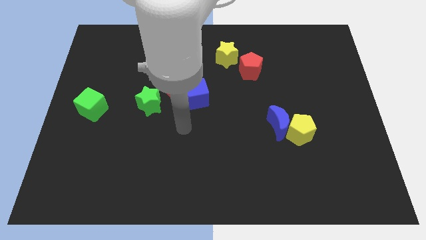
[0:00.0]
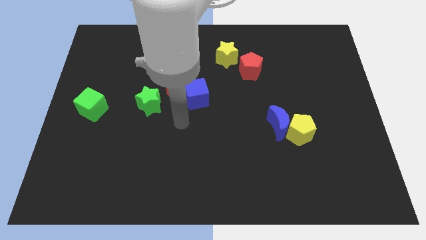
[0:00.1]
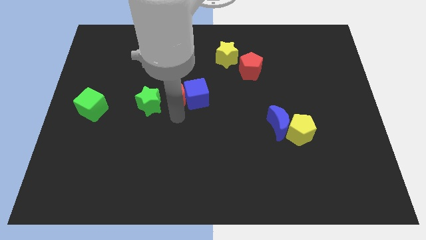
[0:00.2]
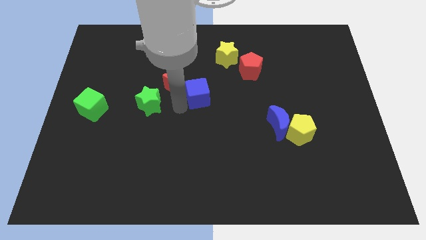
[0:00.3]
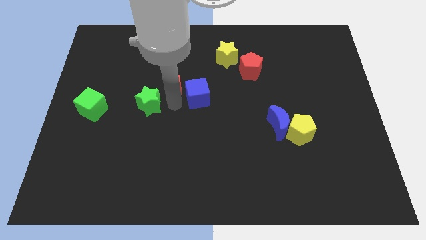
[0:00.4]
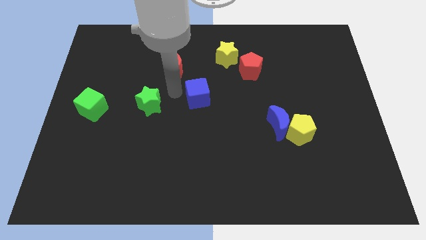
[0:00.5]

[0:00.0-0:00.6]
separate the blue cube from the red moon

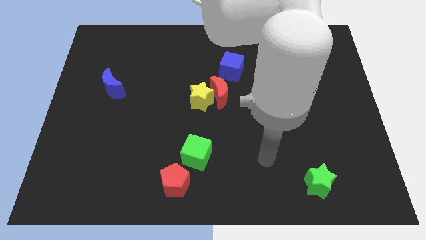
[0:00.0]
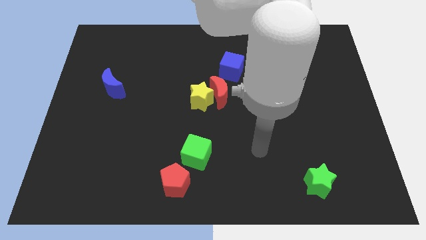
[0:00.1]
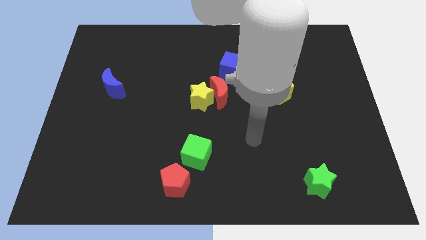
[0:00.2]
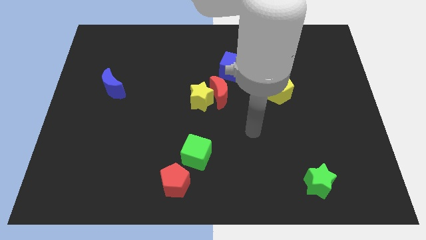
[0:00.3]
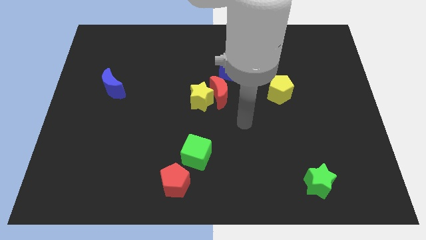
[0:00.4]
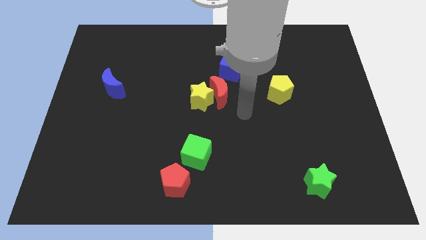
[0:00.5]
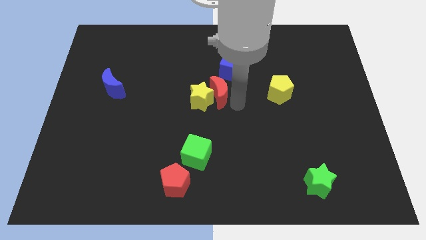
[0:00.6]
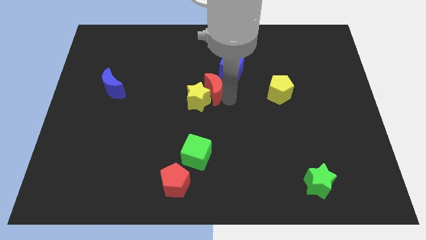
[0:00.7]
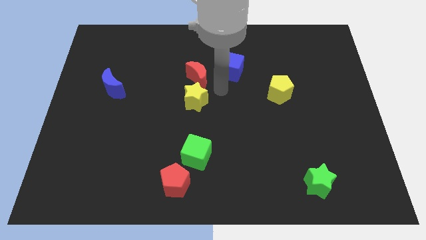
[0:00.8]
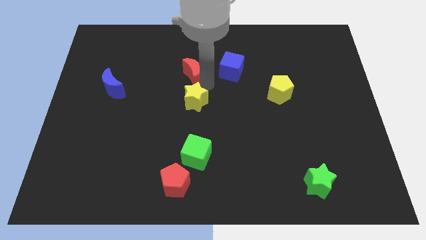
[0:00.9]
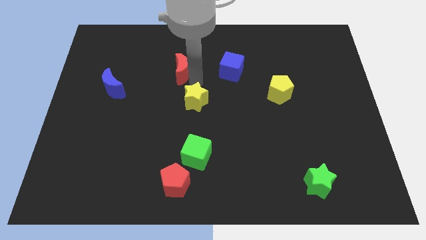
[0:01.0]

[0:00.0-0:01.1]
move the yellow star away from the red moon

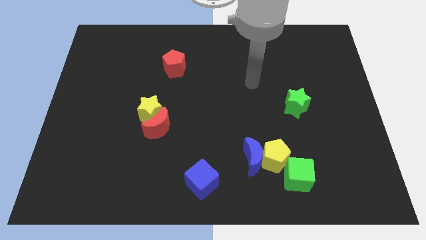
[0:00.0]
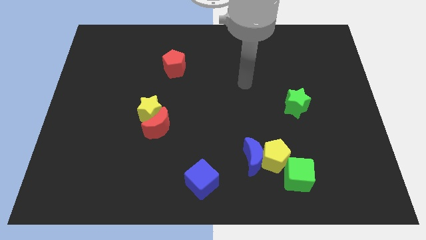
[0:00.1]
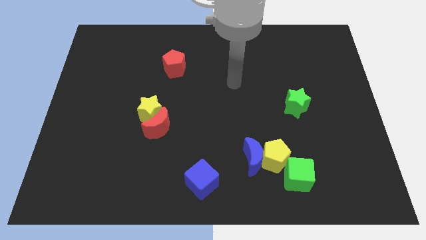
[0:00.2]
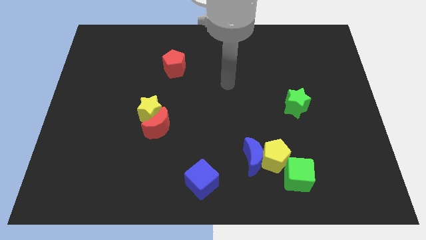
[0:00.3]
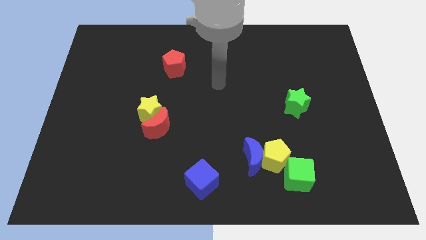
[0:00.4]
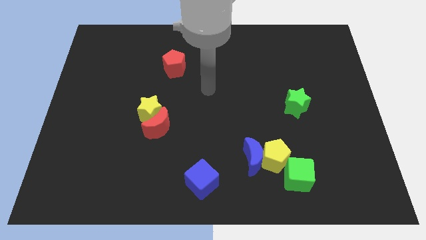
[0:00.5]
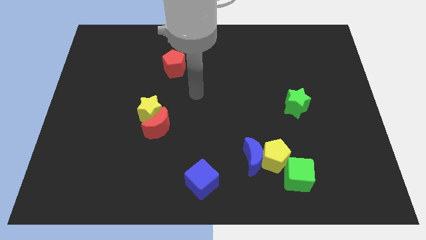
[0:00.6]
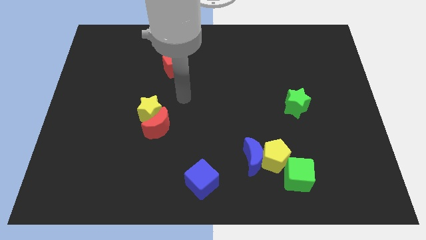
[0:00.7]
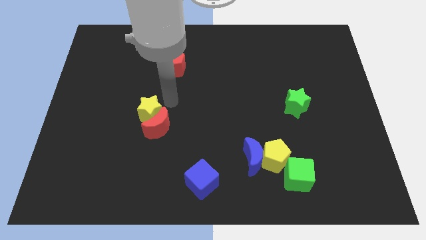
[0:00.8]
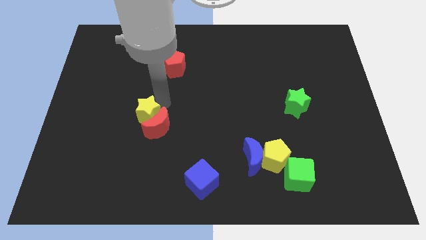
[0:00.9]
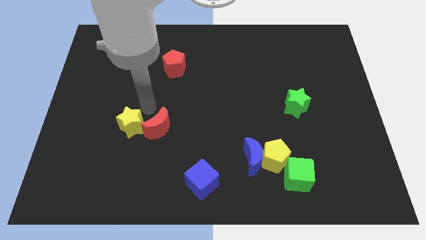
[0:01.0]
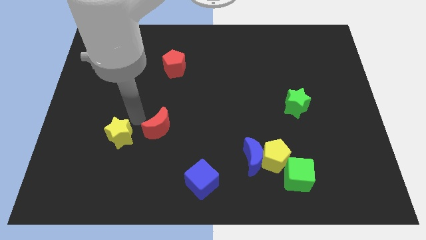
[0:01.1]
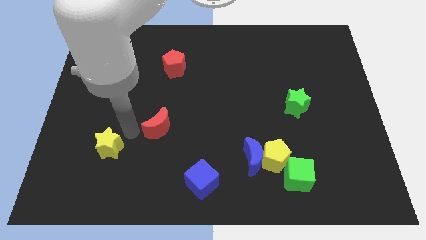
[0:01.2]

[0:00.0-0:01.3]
separate the red moon from the yellow star

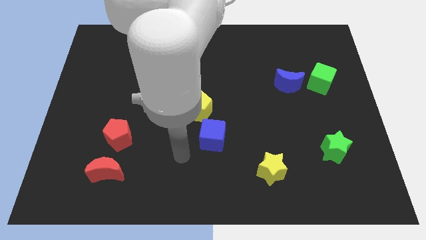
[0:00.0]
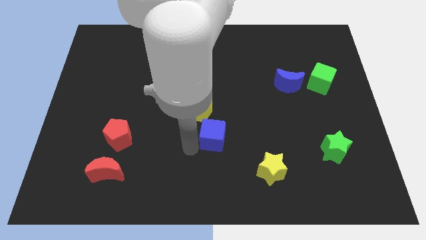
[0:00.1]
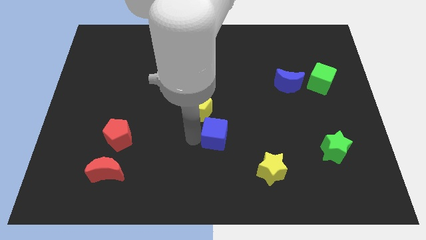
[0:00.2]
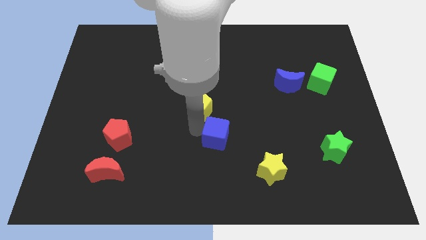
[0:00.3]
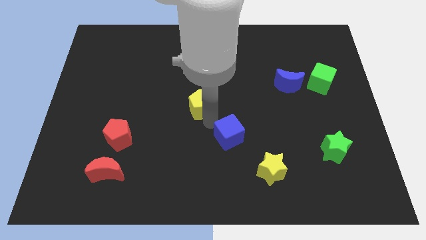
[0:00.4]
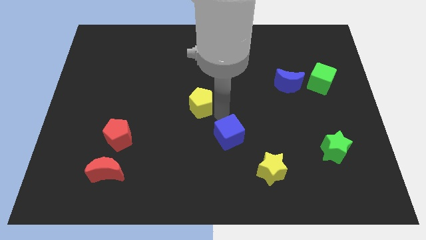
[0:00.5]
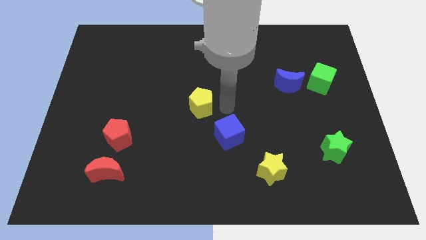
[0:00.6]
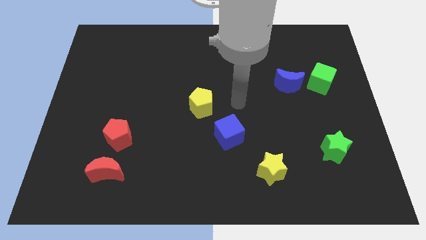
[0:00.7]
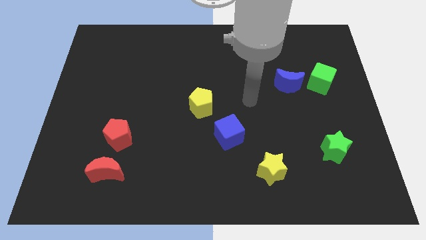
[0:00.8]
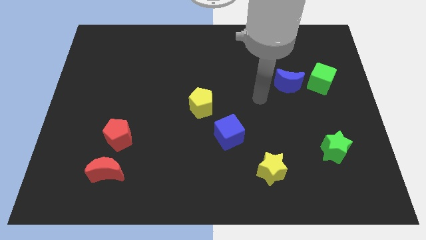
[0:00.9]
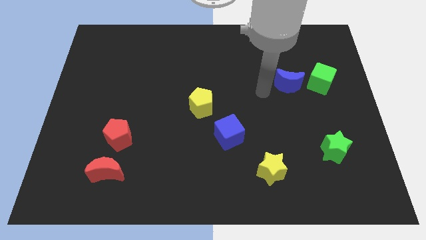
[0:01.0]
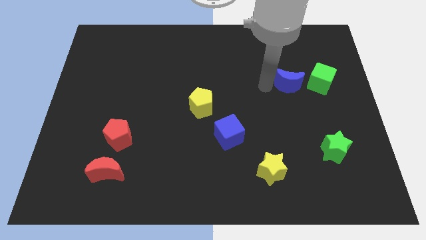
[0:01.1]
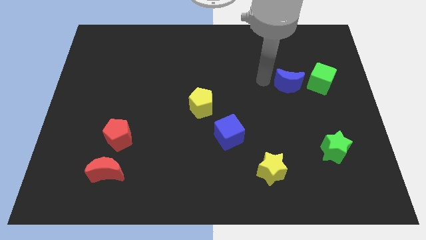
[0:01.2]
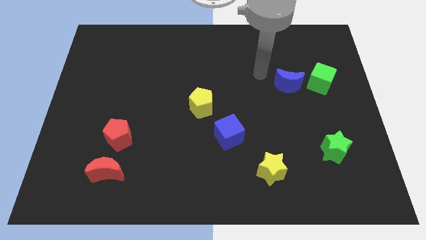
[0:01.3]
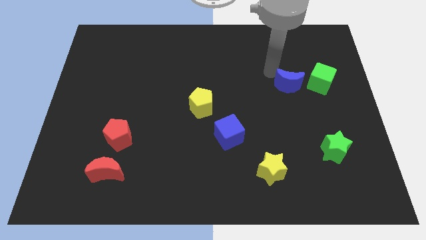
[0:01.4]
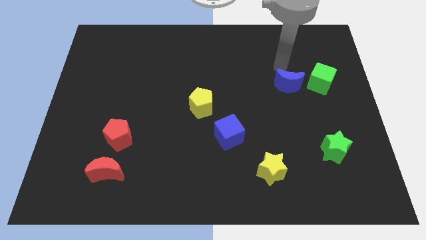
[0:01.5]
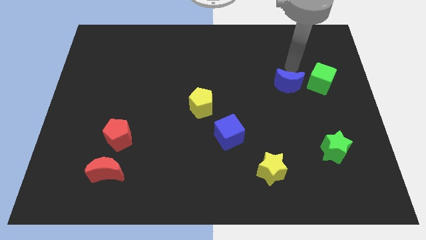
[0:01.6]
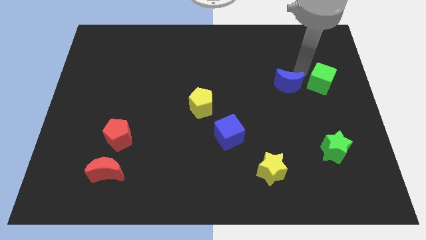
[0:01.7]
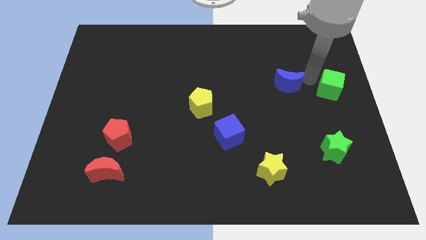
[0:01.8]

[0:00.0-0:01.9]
move the blue moon away from the green cube

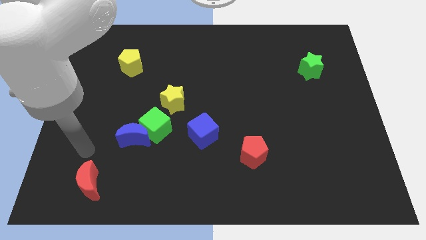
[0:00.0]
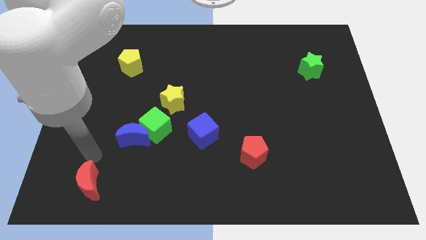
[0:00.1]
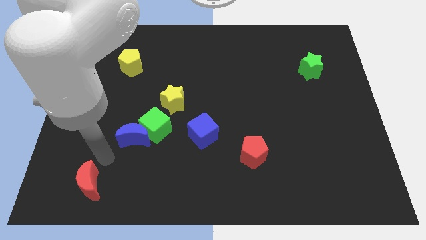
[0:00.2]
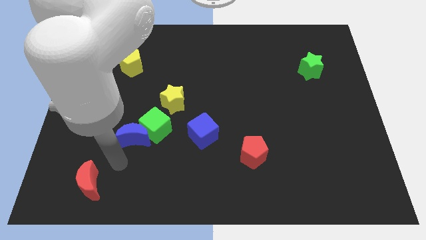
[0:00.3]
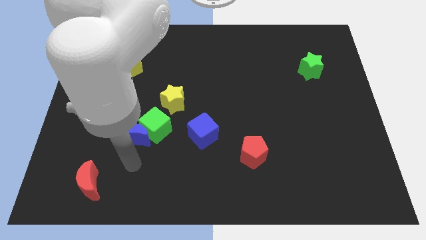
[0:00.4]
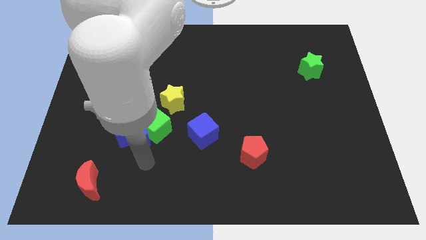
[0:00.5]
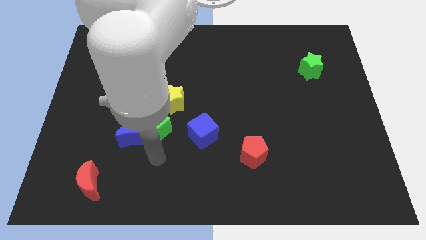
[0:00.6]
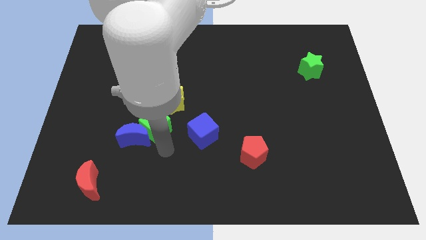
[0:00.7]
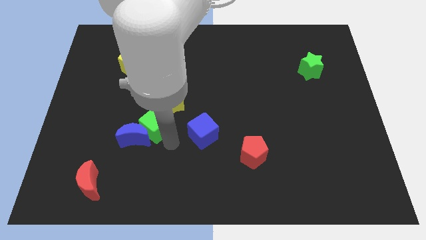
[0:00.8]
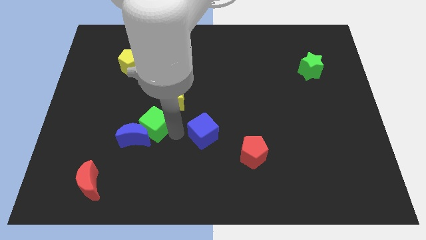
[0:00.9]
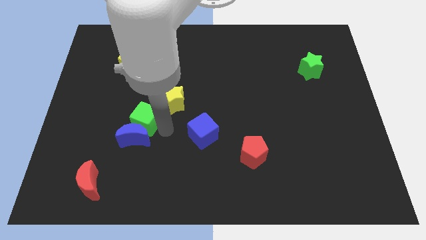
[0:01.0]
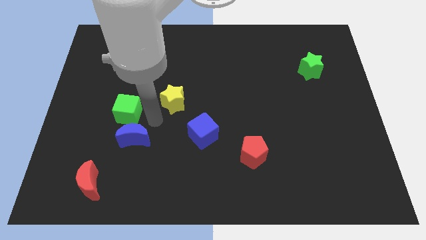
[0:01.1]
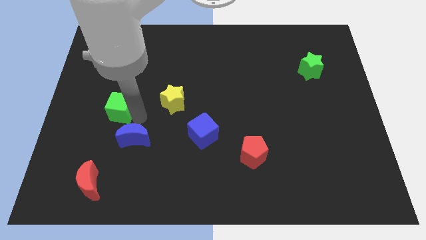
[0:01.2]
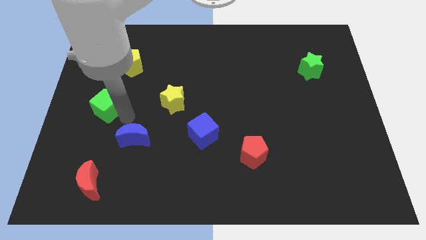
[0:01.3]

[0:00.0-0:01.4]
pull the blue moon apart from the green cube

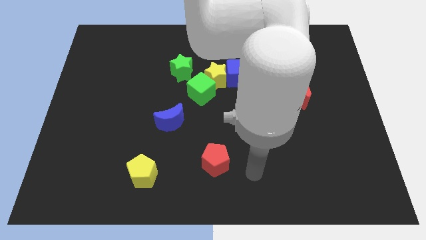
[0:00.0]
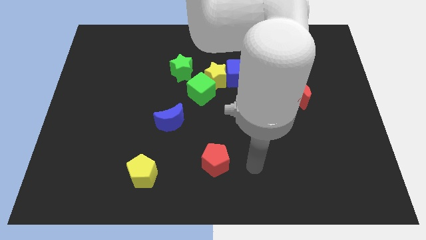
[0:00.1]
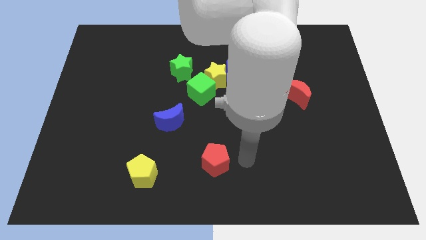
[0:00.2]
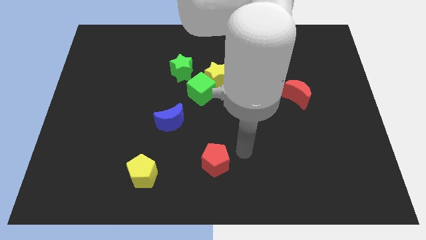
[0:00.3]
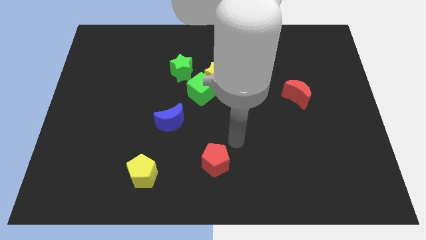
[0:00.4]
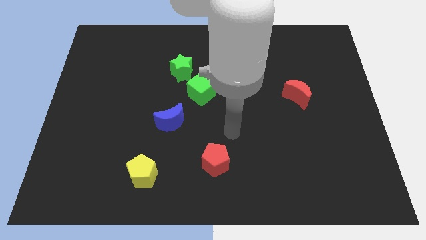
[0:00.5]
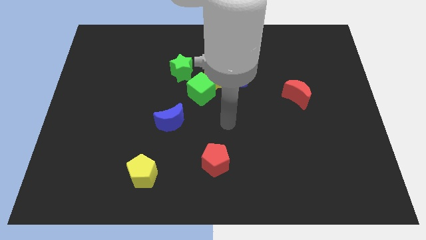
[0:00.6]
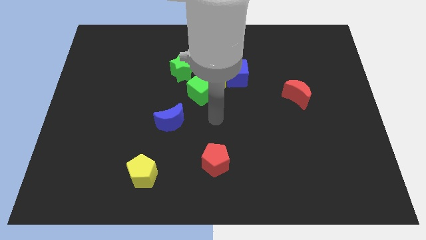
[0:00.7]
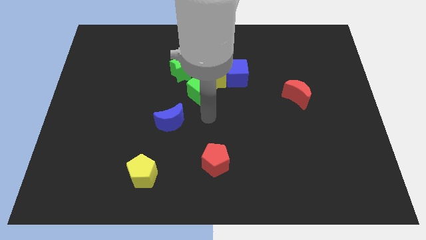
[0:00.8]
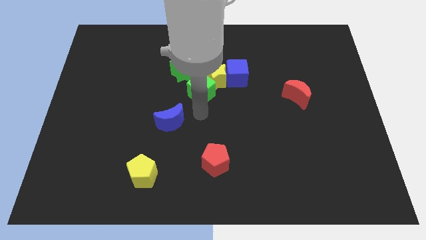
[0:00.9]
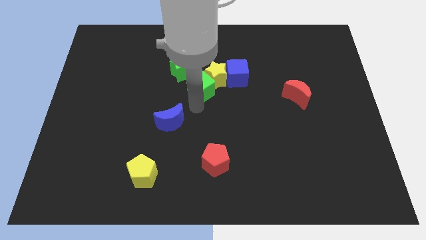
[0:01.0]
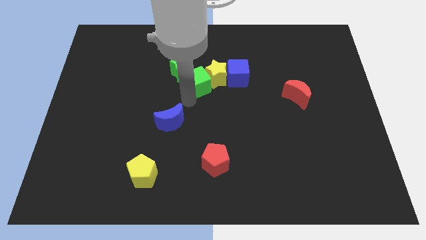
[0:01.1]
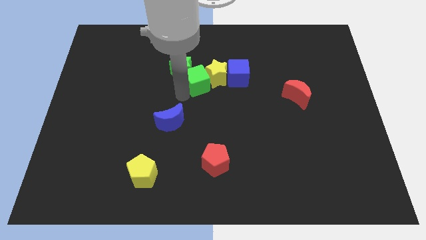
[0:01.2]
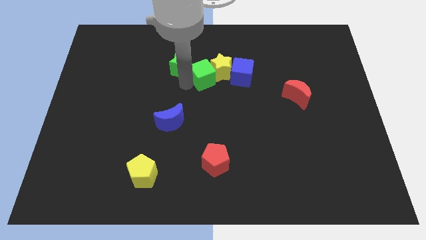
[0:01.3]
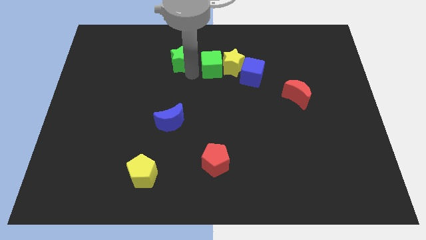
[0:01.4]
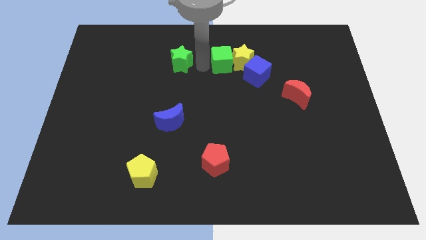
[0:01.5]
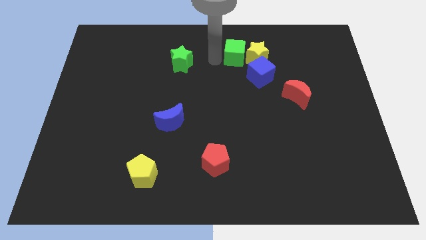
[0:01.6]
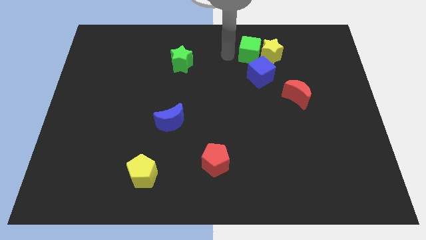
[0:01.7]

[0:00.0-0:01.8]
separate the yellow star from the clump

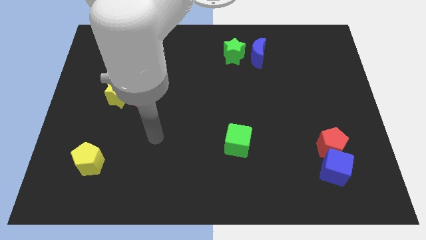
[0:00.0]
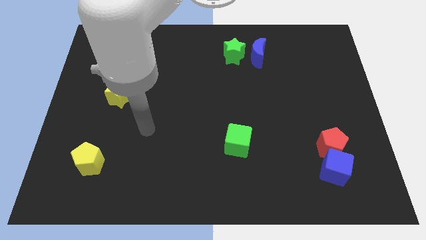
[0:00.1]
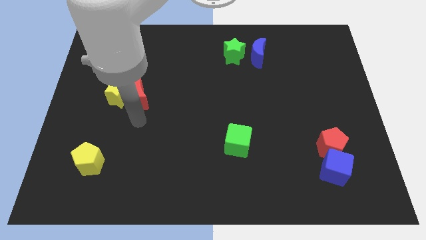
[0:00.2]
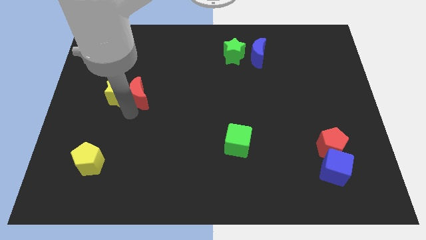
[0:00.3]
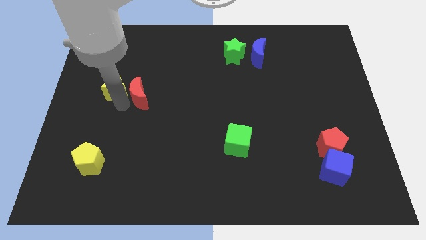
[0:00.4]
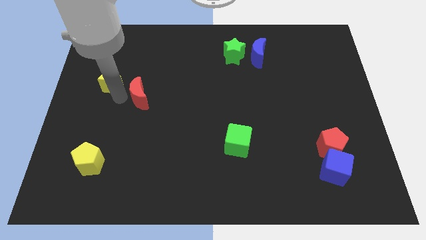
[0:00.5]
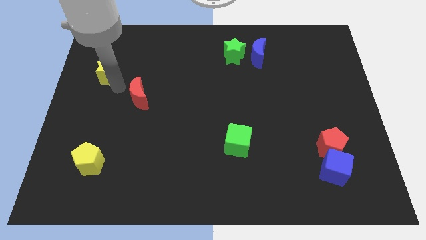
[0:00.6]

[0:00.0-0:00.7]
move the red moon away from the yellow star

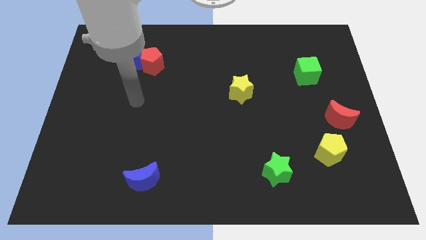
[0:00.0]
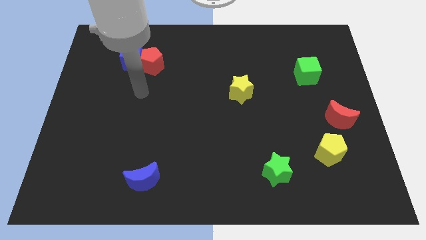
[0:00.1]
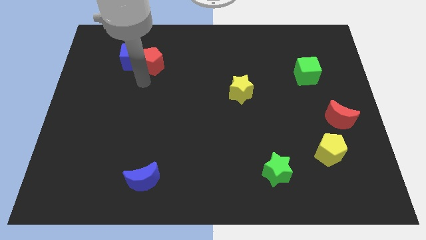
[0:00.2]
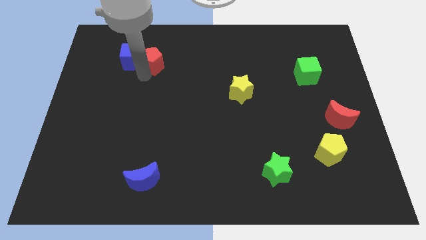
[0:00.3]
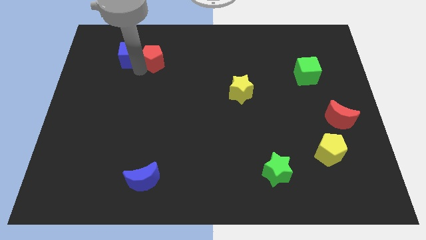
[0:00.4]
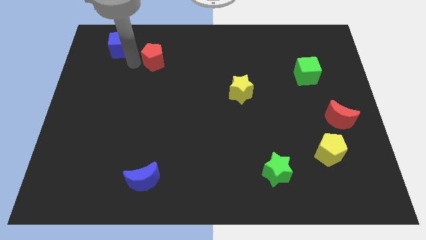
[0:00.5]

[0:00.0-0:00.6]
pull the red pentagon apart from the blue cube
